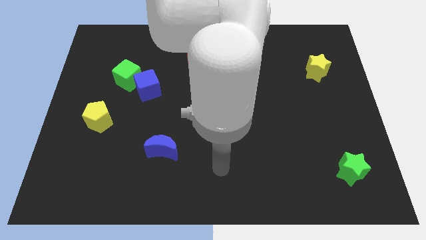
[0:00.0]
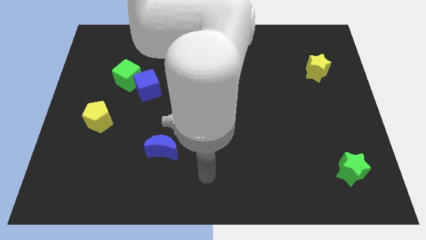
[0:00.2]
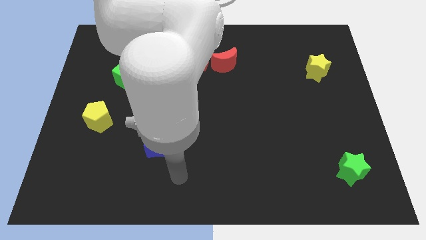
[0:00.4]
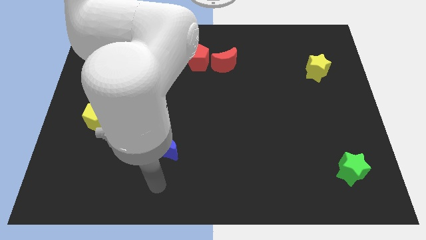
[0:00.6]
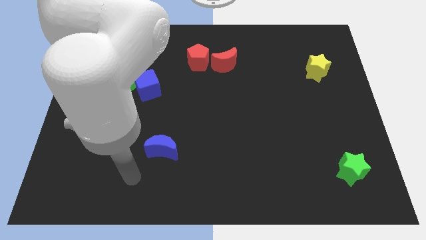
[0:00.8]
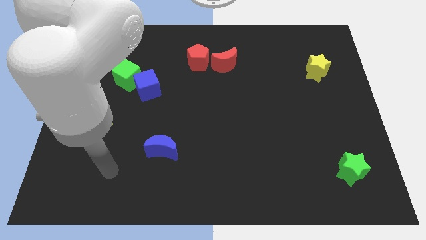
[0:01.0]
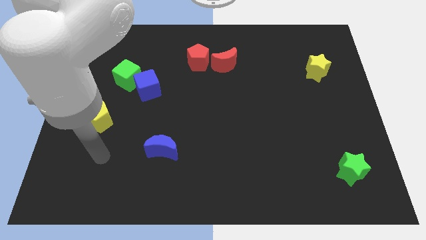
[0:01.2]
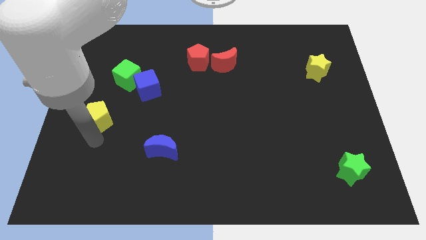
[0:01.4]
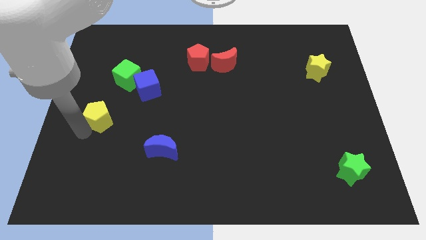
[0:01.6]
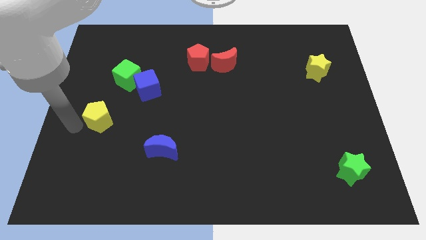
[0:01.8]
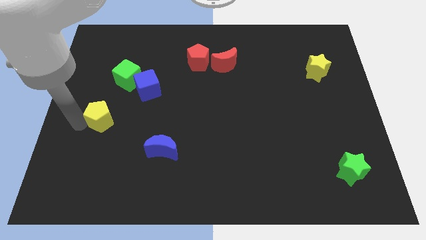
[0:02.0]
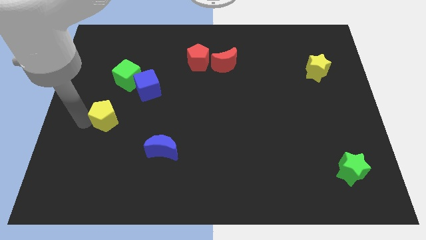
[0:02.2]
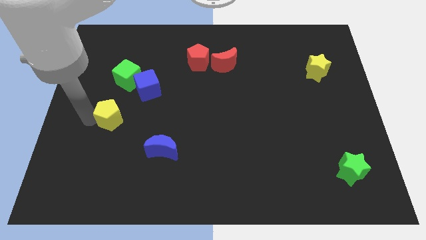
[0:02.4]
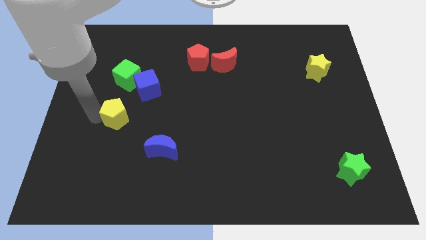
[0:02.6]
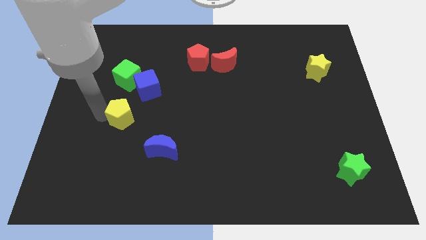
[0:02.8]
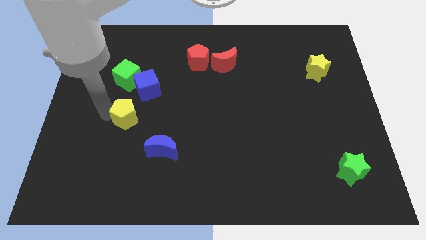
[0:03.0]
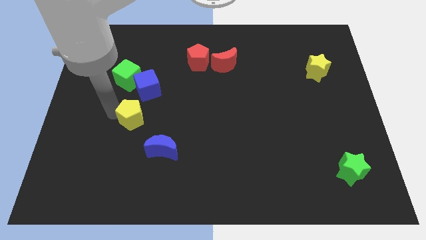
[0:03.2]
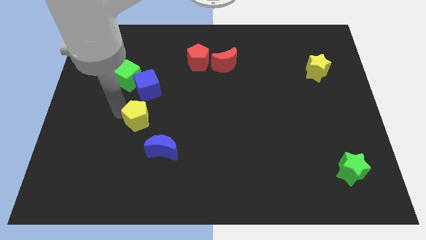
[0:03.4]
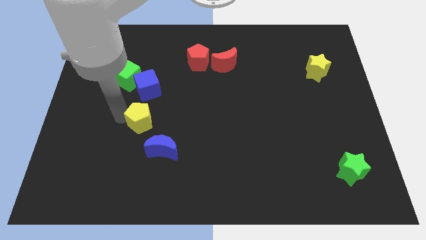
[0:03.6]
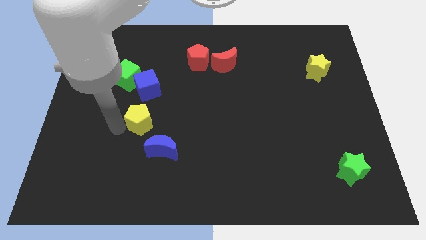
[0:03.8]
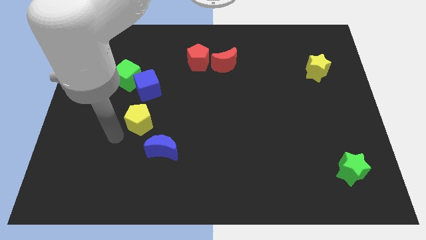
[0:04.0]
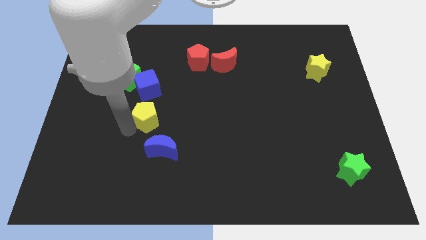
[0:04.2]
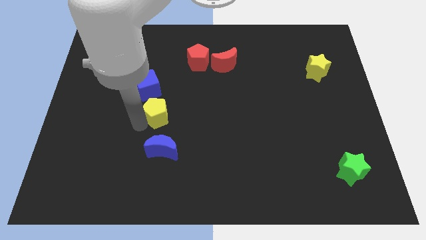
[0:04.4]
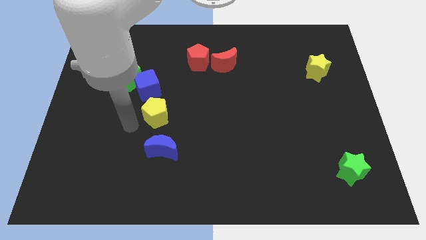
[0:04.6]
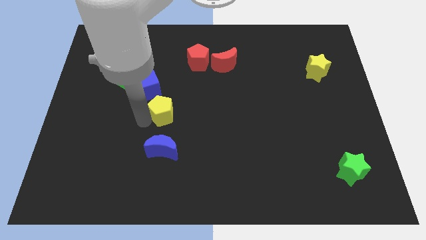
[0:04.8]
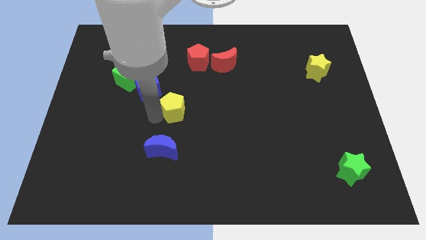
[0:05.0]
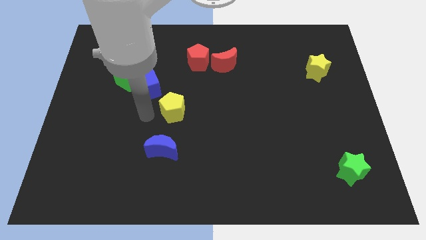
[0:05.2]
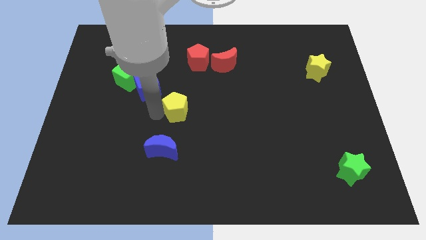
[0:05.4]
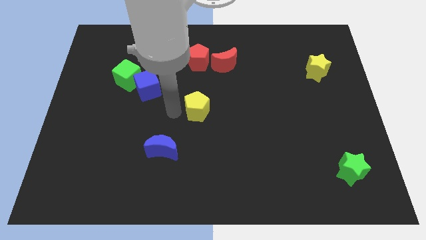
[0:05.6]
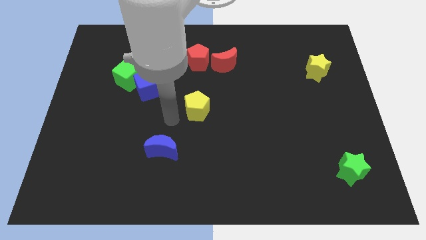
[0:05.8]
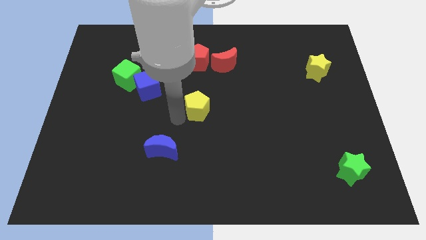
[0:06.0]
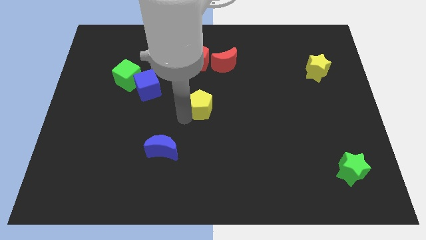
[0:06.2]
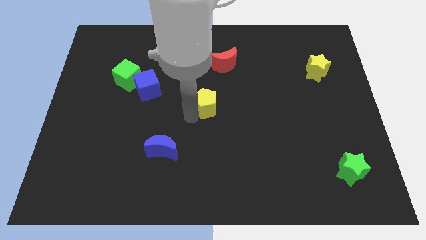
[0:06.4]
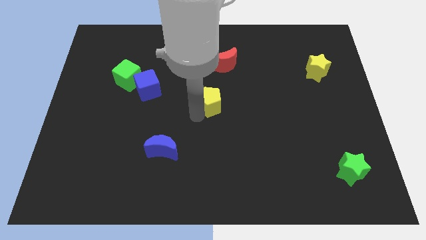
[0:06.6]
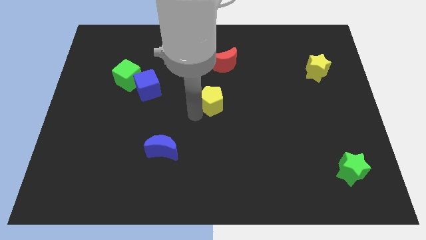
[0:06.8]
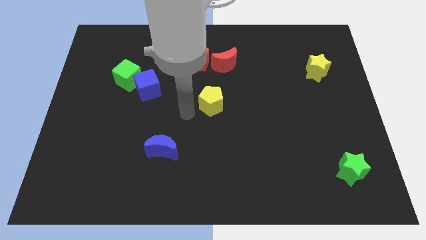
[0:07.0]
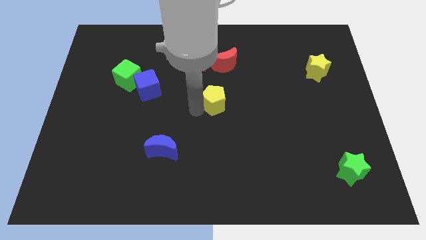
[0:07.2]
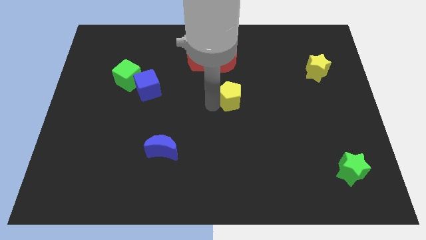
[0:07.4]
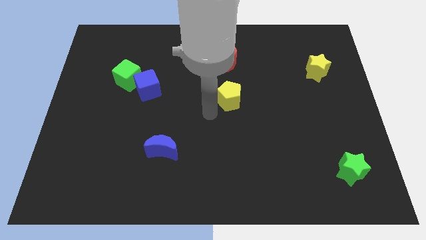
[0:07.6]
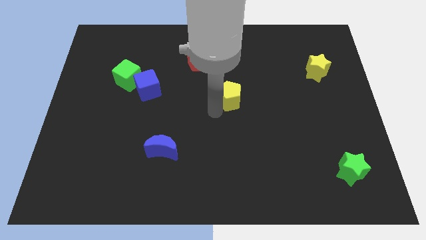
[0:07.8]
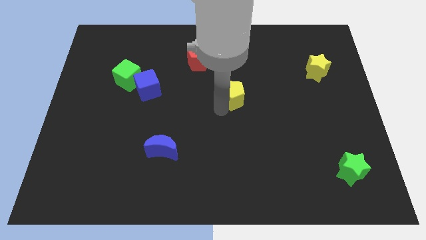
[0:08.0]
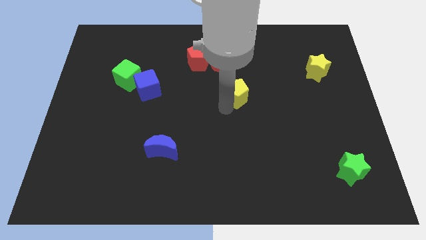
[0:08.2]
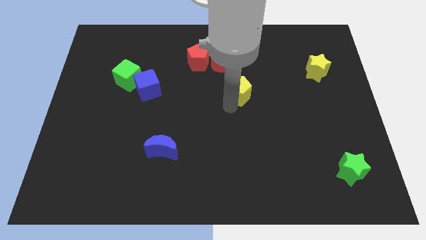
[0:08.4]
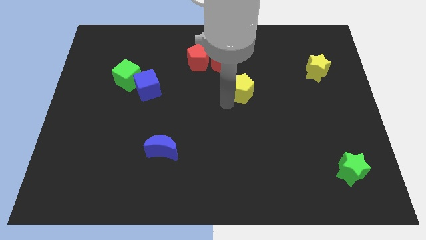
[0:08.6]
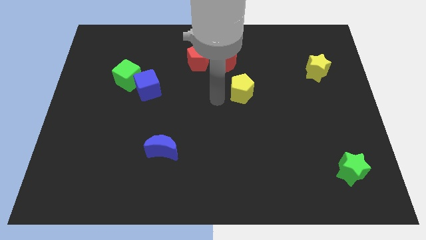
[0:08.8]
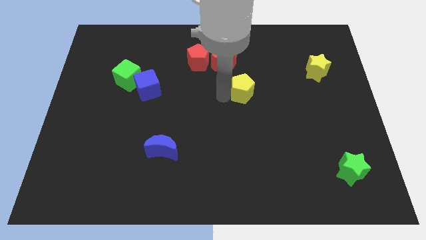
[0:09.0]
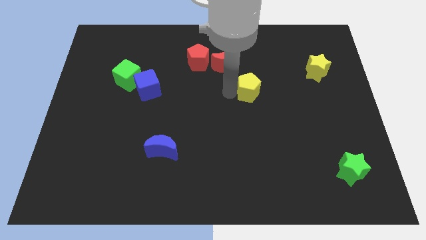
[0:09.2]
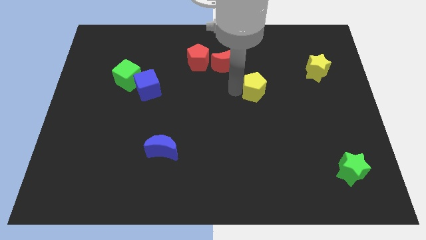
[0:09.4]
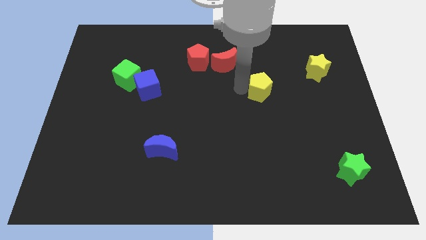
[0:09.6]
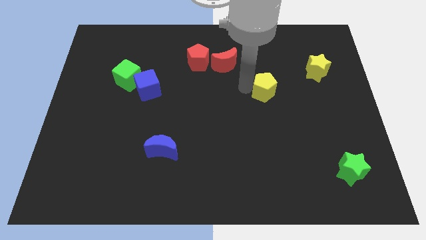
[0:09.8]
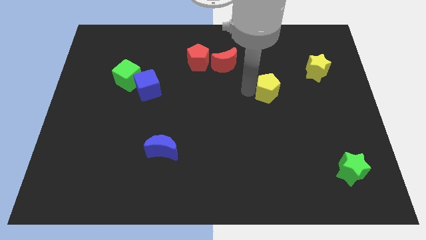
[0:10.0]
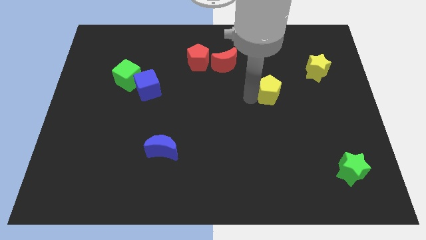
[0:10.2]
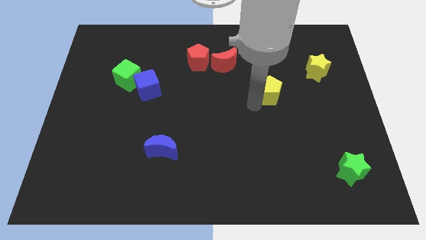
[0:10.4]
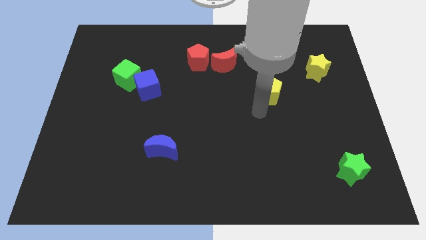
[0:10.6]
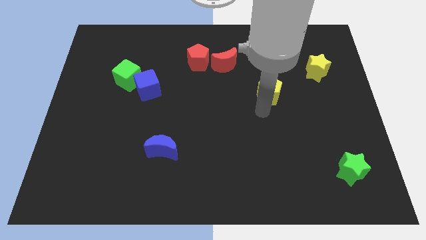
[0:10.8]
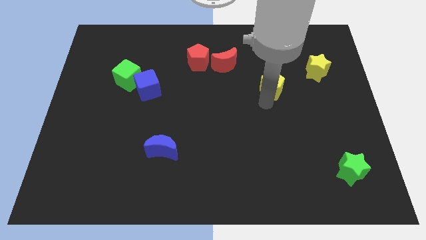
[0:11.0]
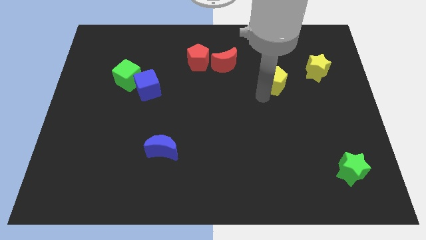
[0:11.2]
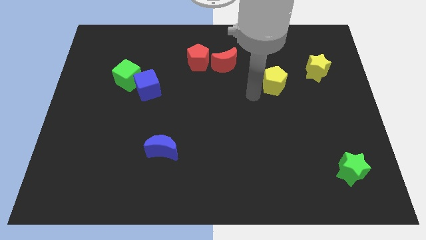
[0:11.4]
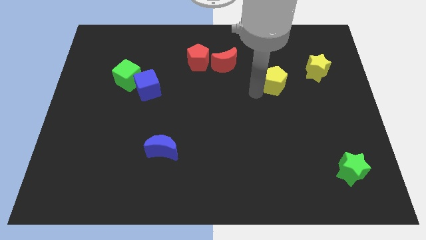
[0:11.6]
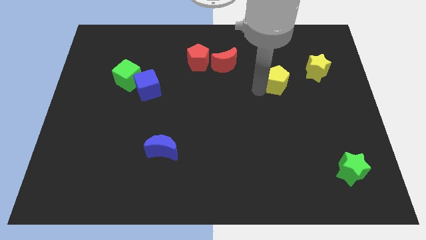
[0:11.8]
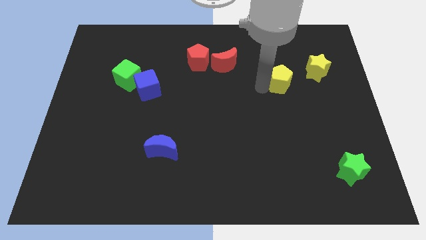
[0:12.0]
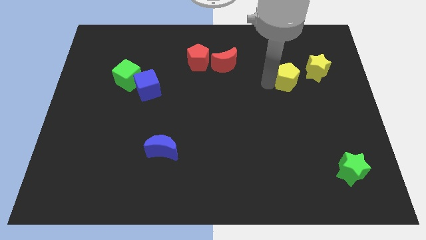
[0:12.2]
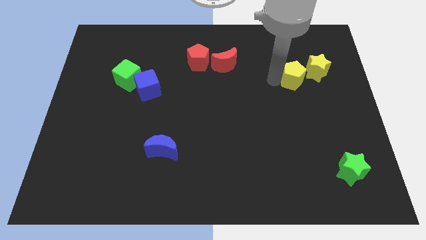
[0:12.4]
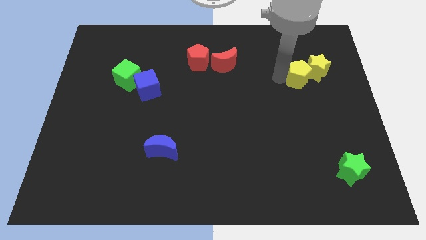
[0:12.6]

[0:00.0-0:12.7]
put the yellow pentagon to the yellow star
